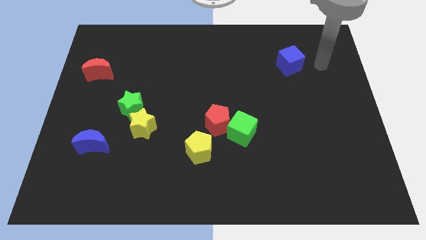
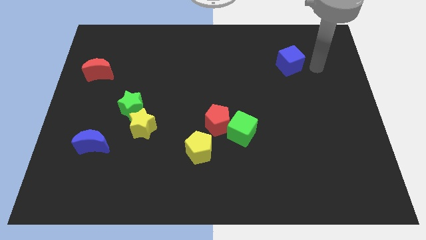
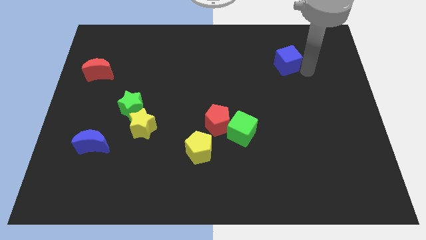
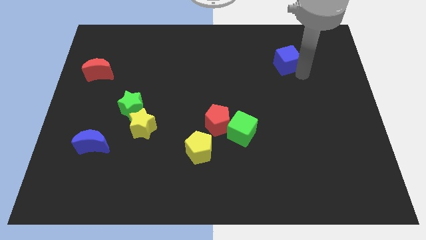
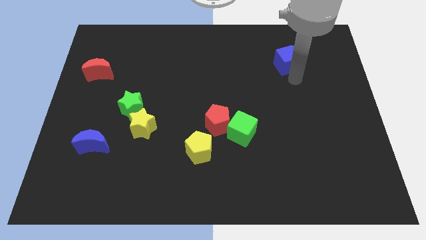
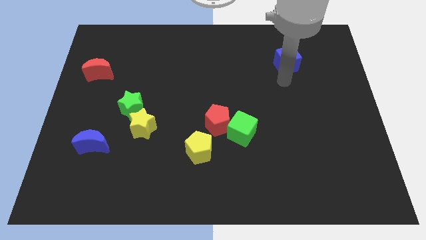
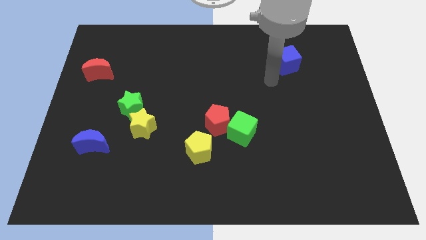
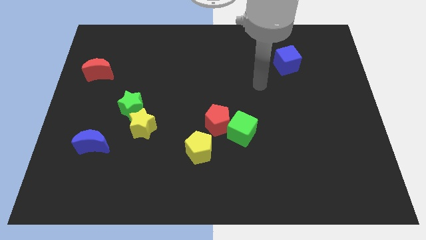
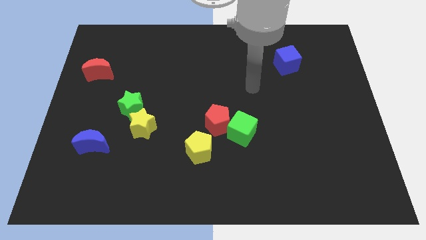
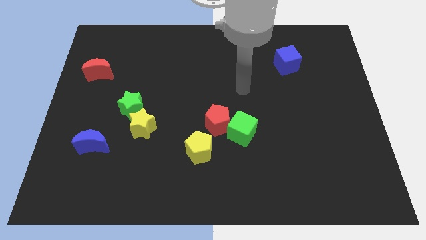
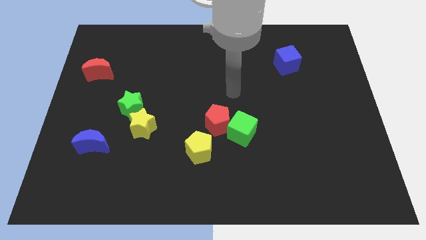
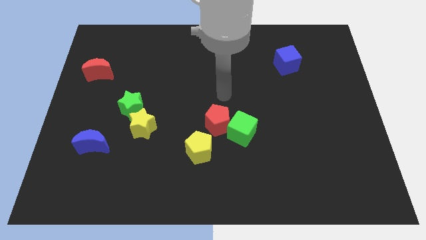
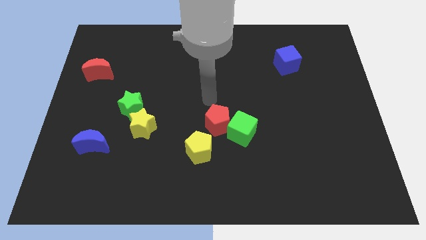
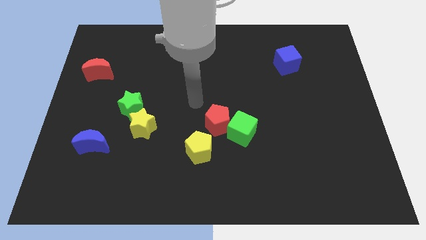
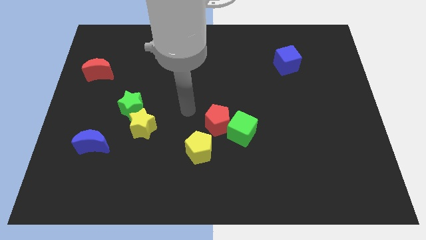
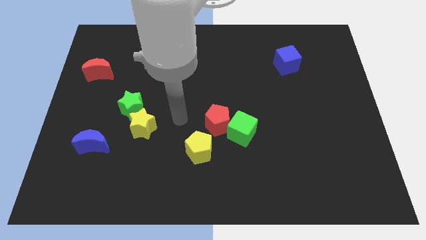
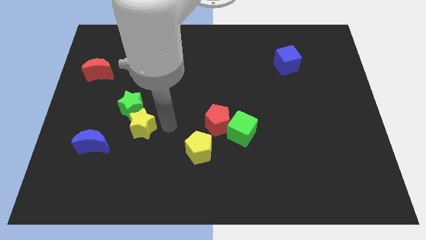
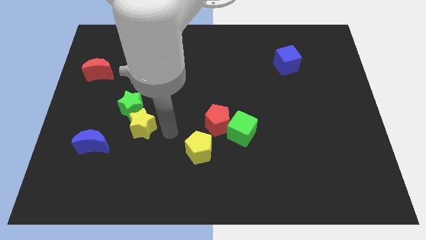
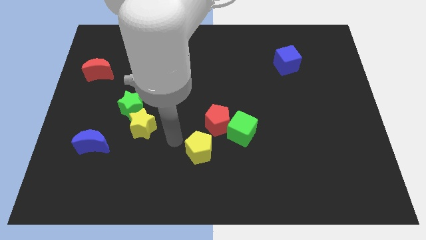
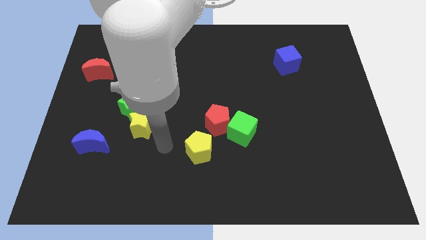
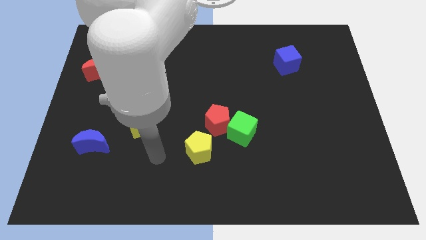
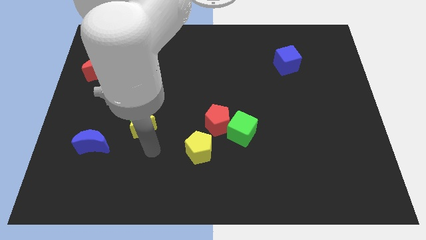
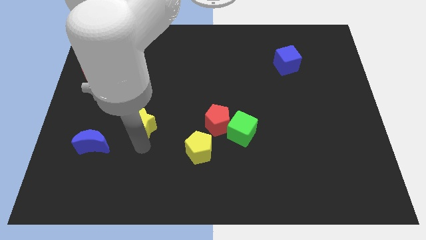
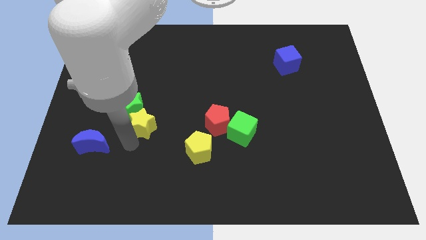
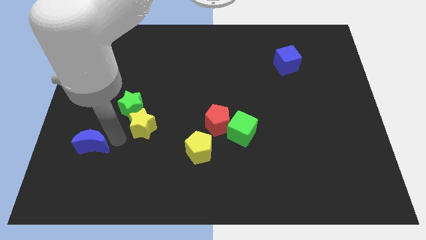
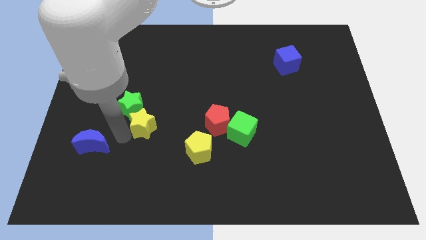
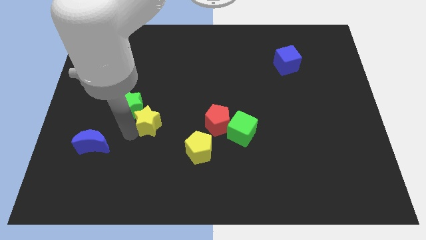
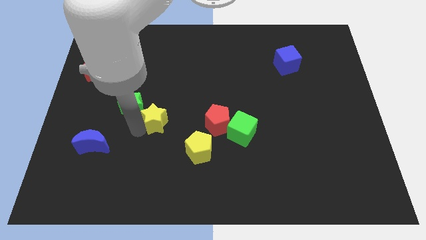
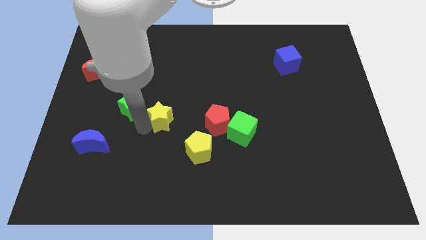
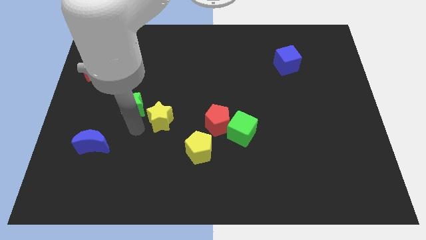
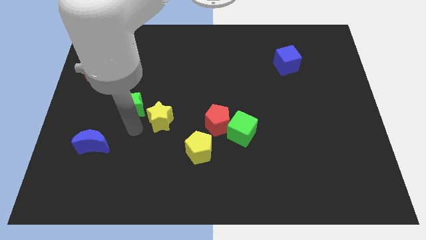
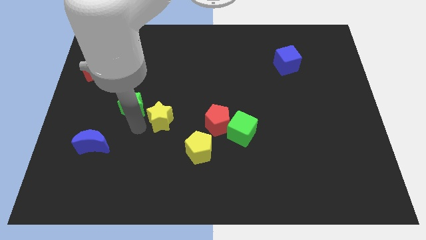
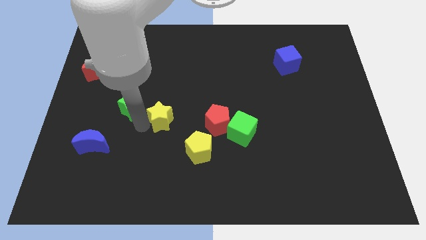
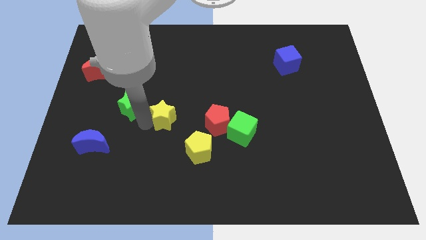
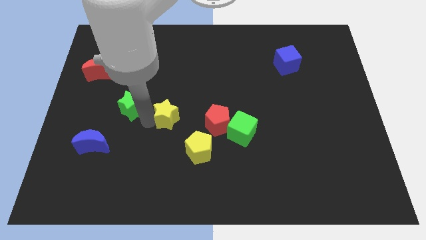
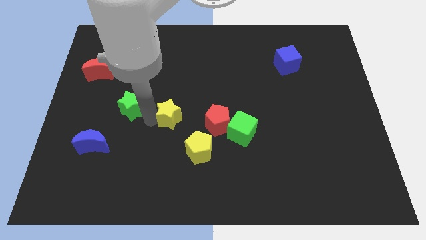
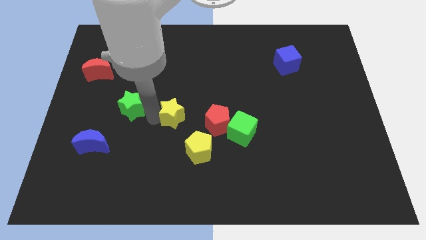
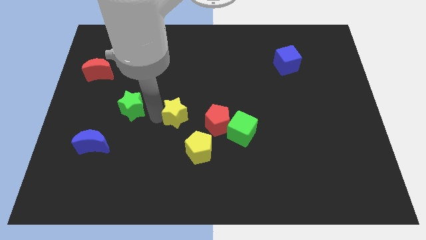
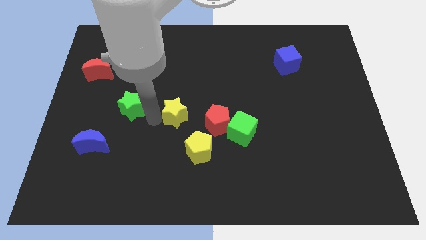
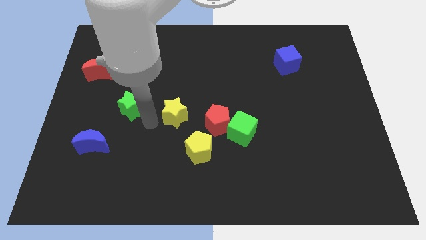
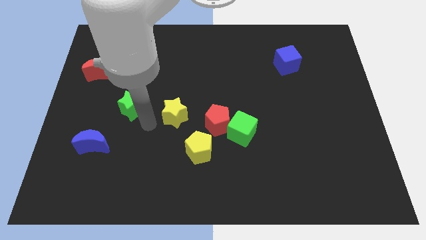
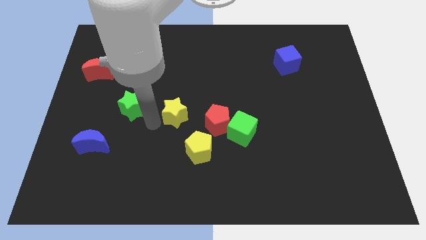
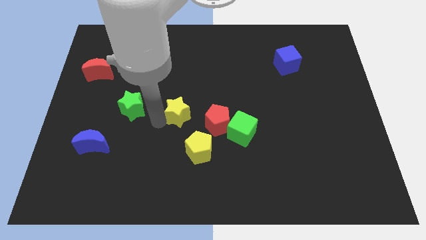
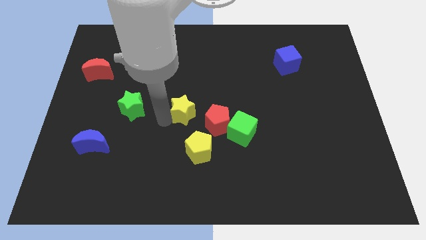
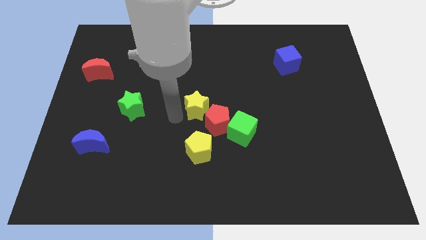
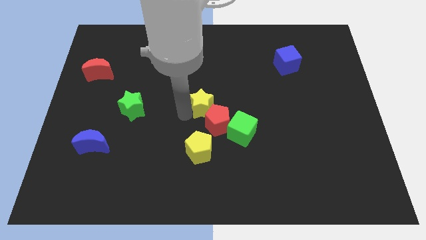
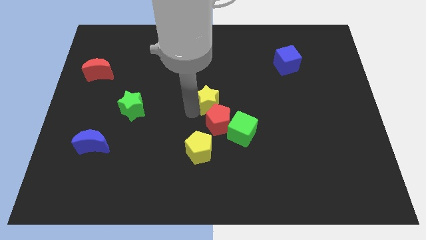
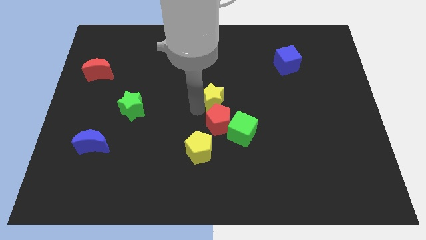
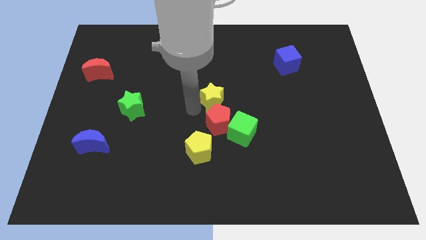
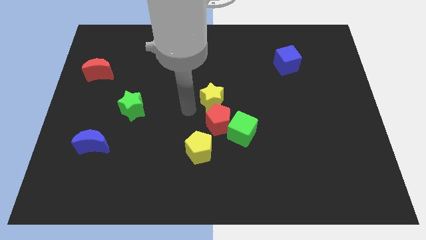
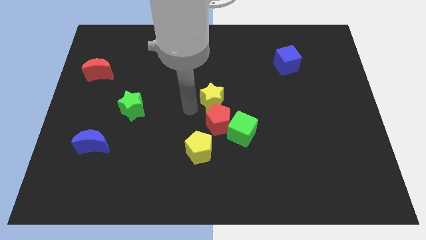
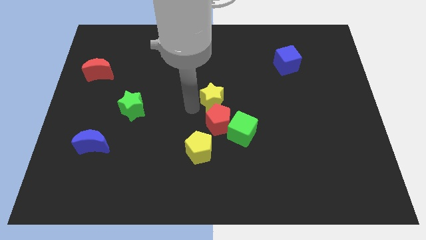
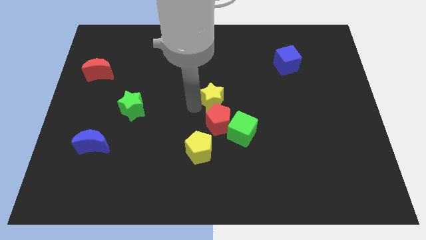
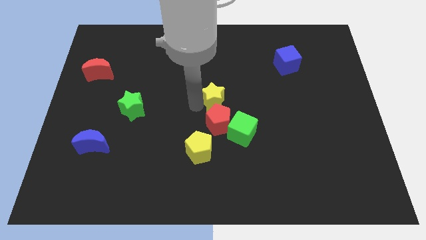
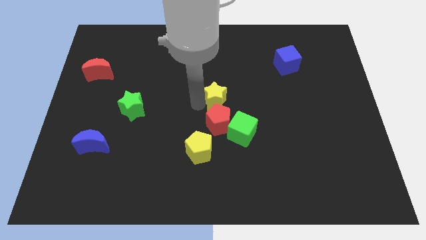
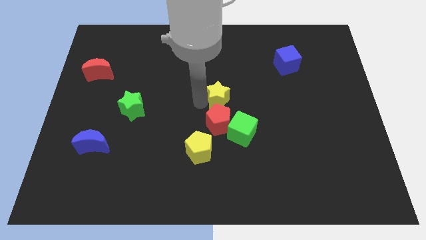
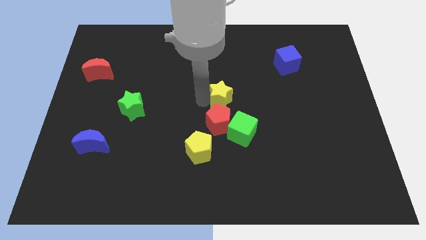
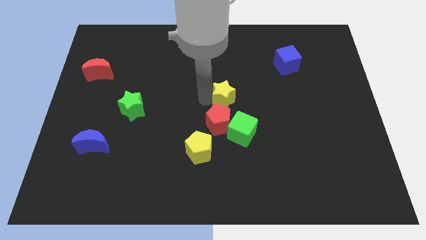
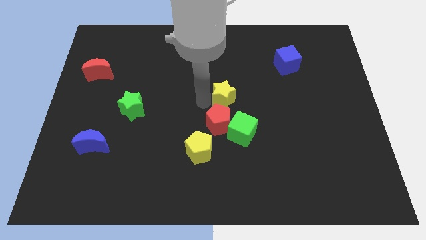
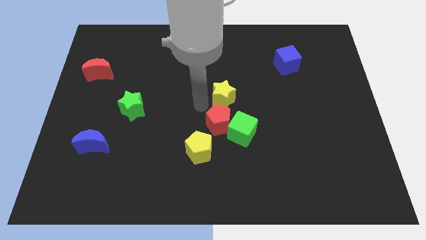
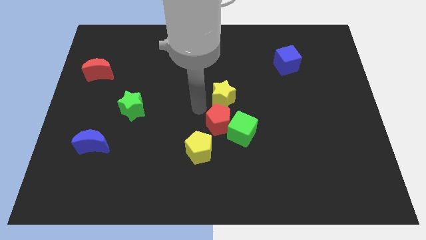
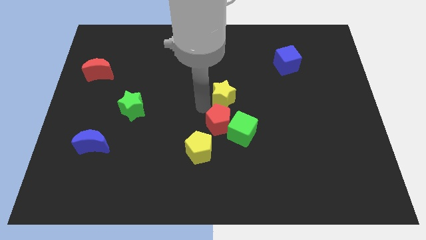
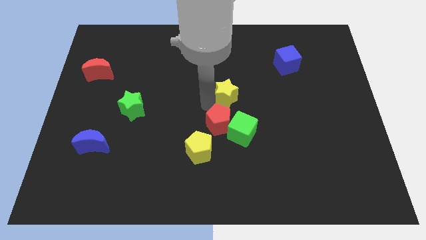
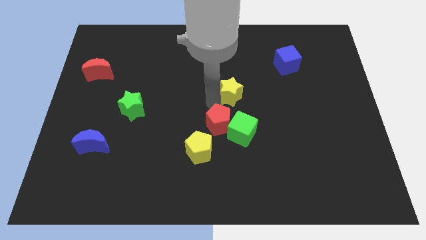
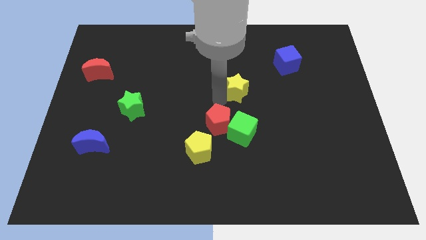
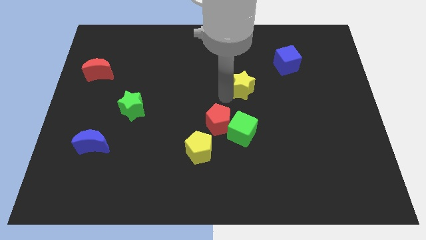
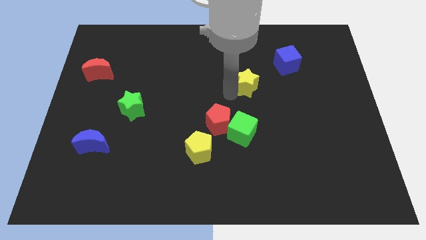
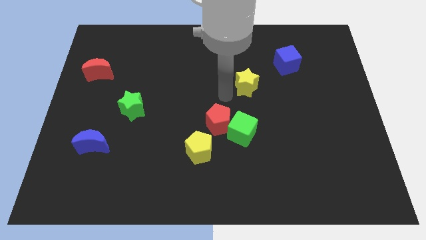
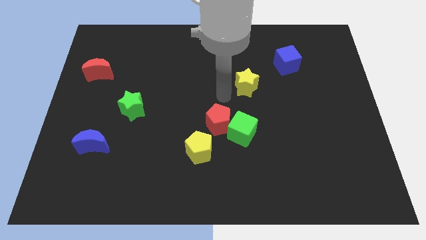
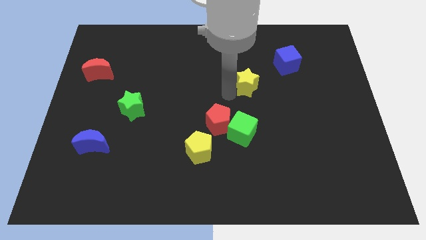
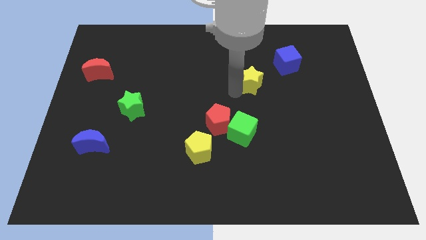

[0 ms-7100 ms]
slide the yellow star diagonally down and to the left of the blue cube

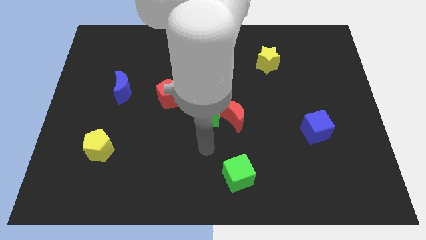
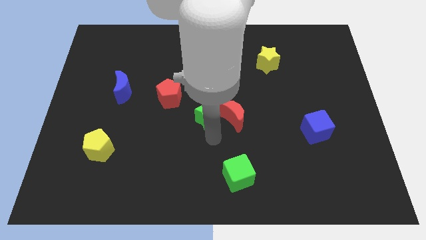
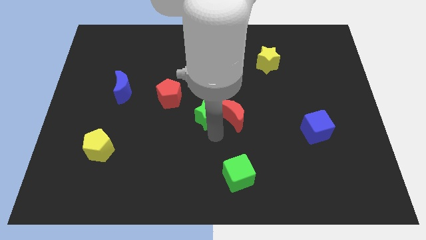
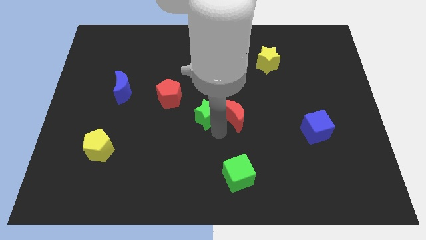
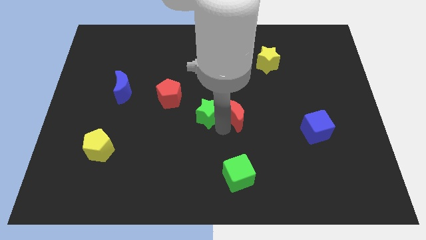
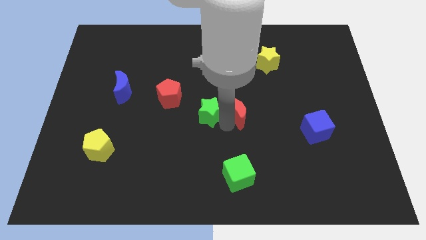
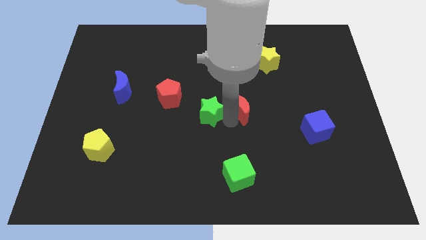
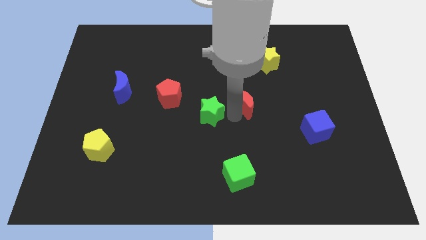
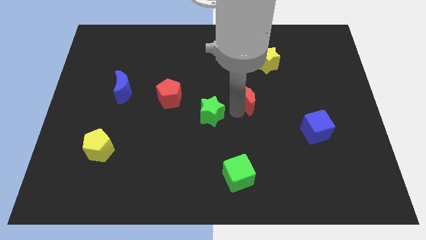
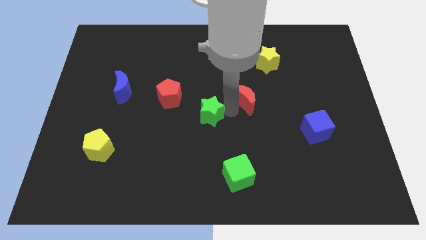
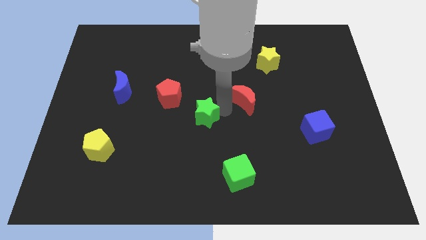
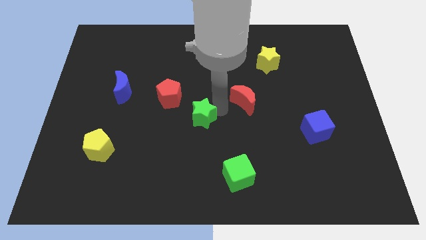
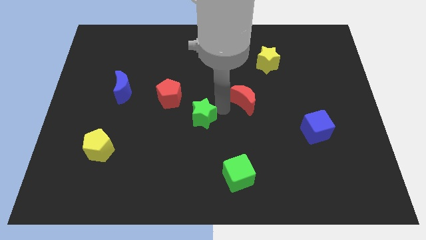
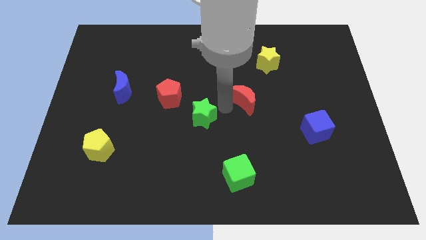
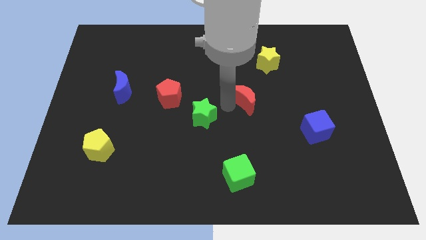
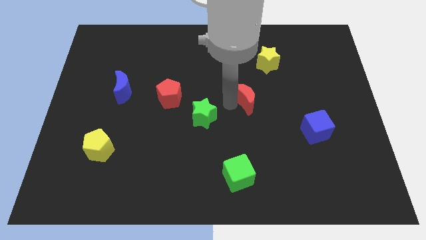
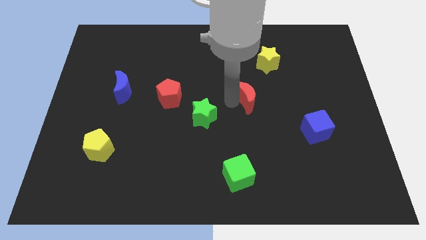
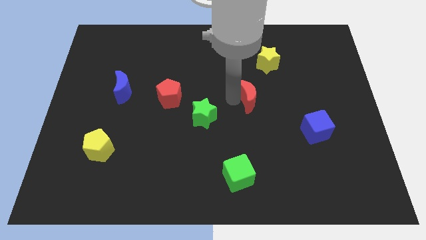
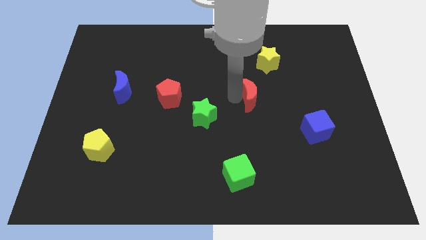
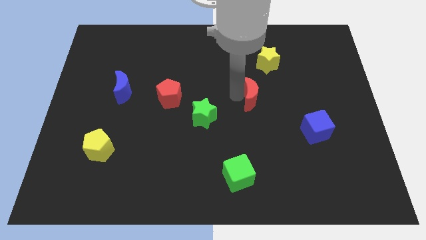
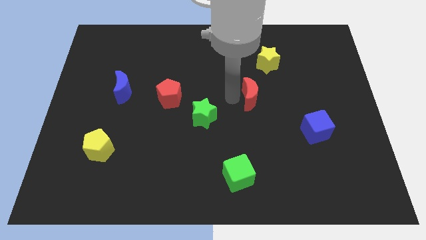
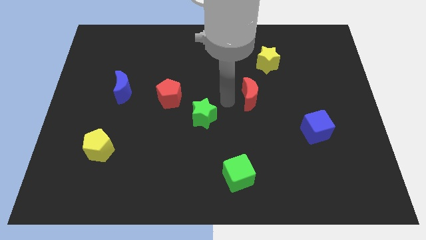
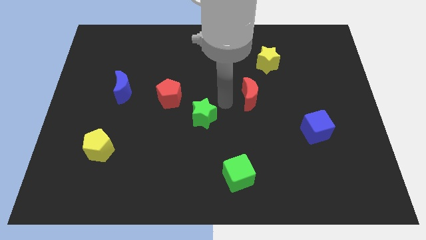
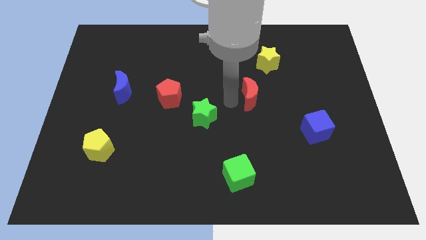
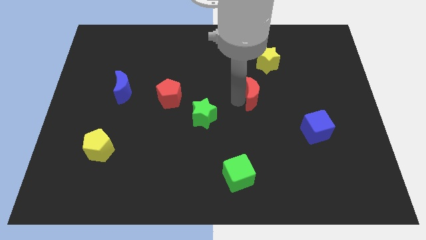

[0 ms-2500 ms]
slide the red moon to the bottom of the yellow star
